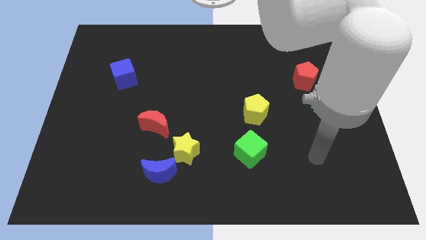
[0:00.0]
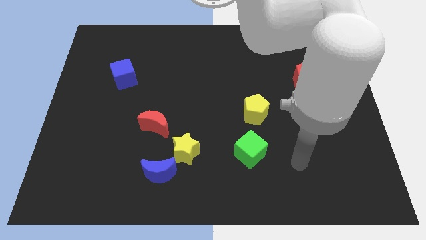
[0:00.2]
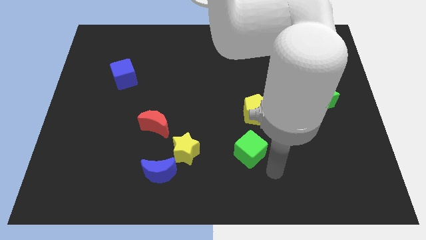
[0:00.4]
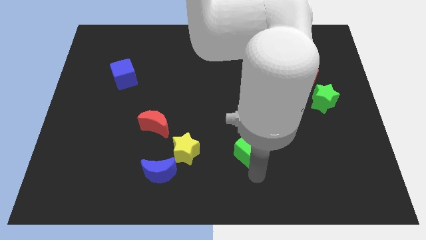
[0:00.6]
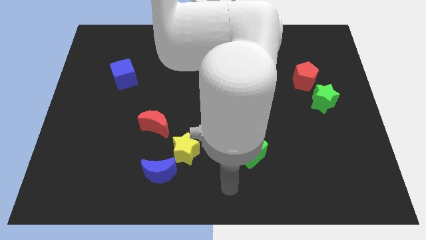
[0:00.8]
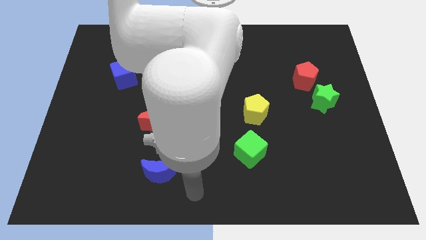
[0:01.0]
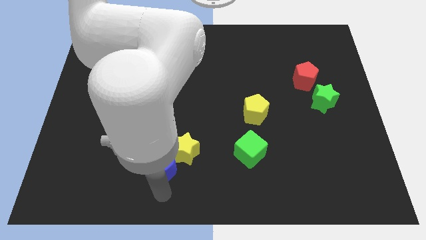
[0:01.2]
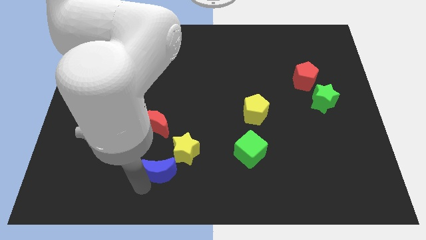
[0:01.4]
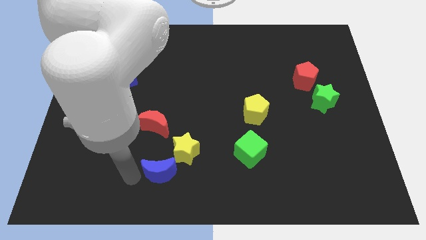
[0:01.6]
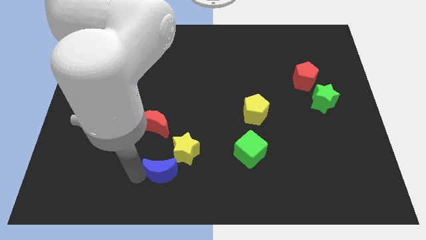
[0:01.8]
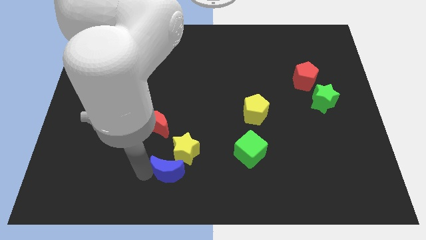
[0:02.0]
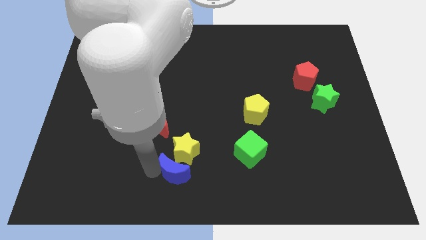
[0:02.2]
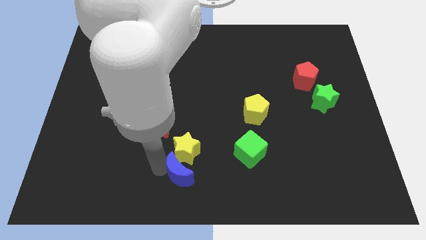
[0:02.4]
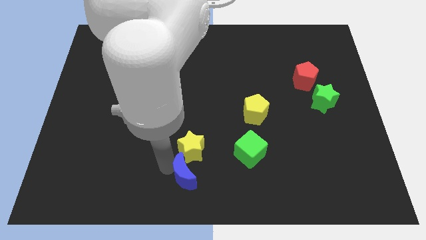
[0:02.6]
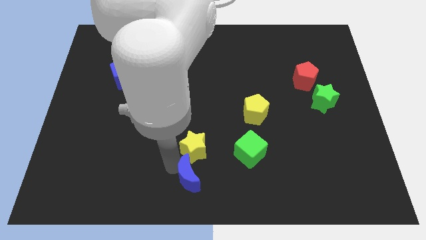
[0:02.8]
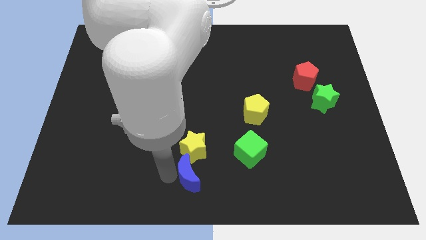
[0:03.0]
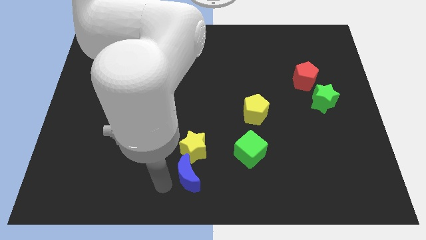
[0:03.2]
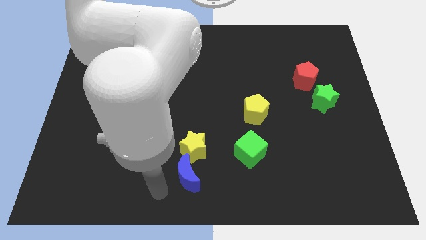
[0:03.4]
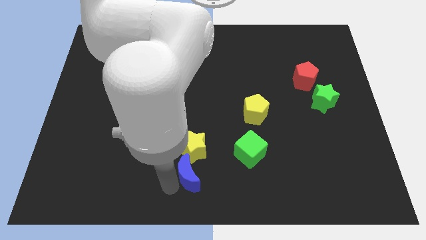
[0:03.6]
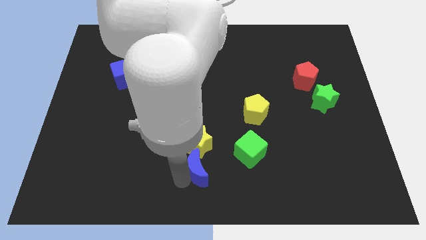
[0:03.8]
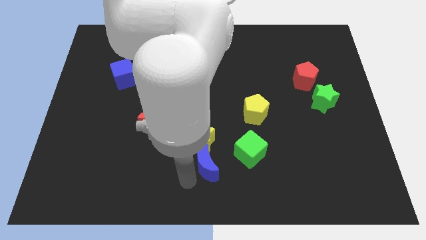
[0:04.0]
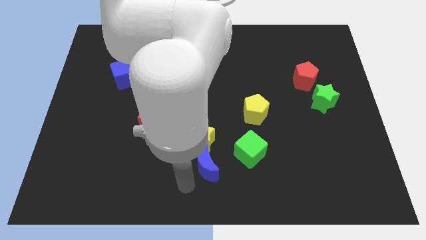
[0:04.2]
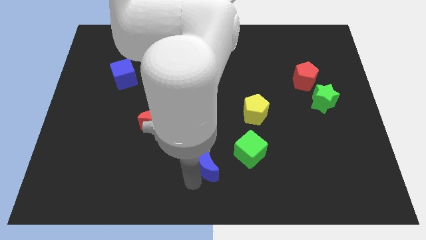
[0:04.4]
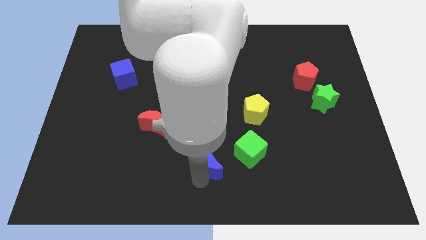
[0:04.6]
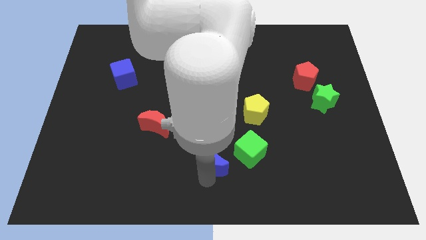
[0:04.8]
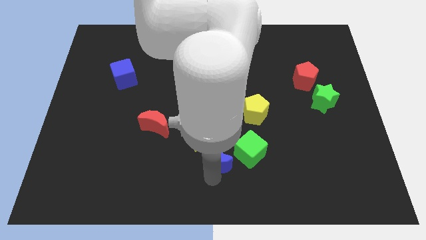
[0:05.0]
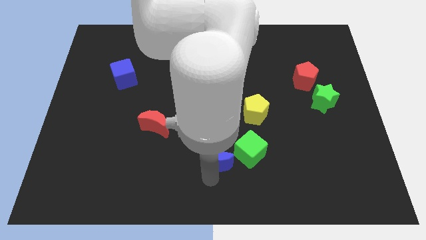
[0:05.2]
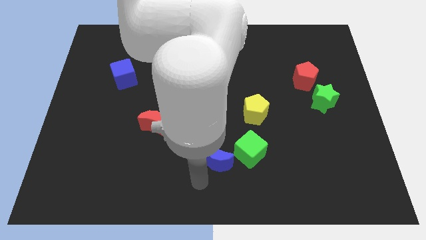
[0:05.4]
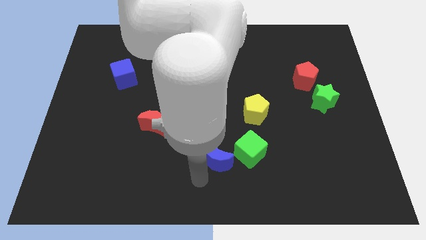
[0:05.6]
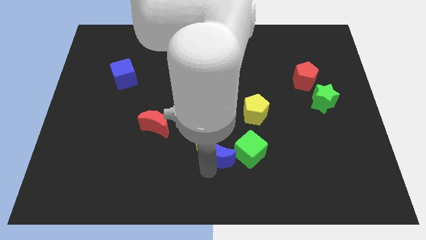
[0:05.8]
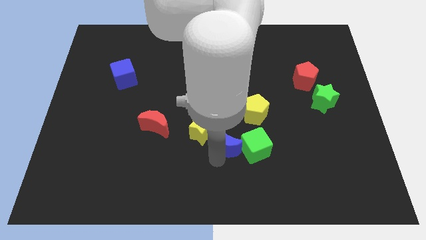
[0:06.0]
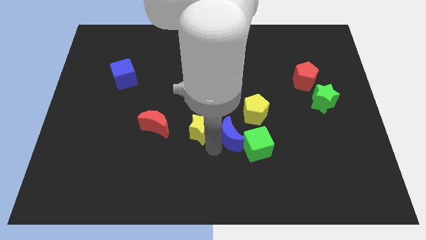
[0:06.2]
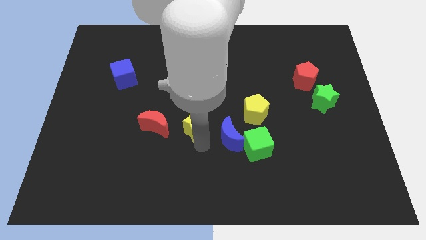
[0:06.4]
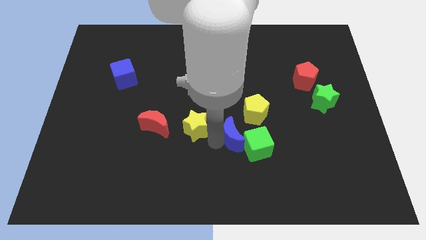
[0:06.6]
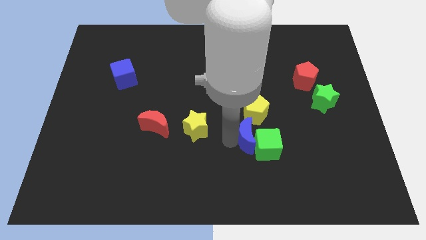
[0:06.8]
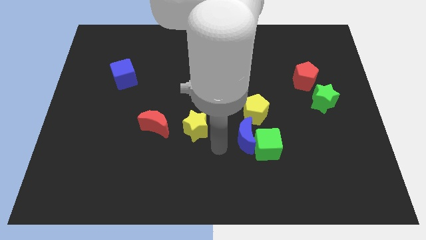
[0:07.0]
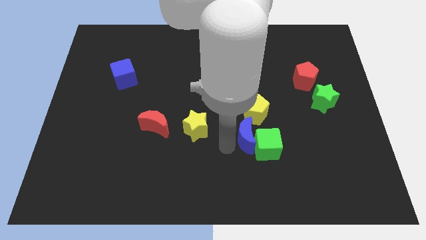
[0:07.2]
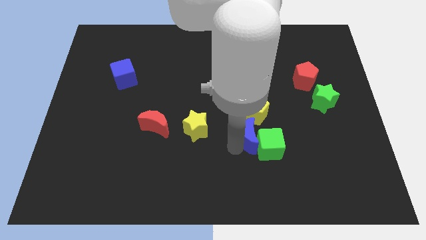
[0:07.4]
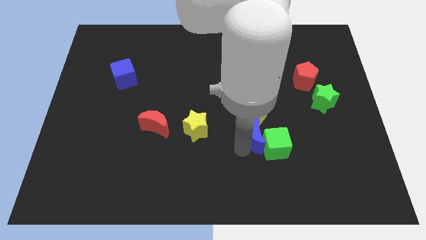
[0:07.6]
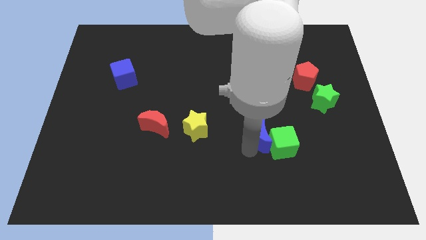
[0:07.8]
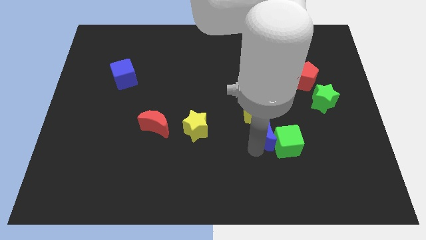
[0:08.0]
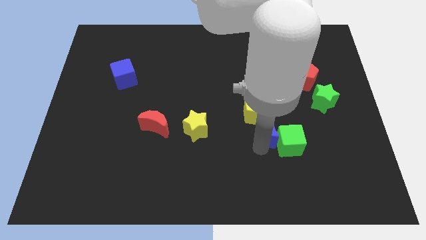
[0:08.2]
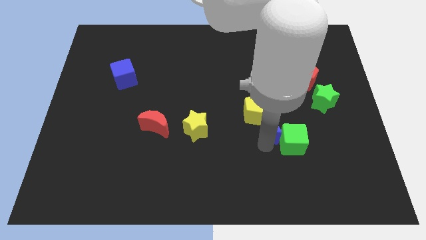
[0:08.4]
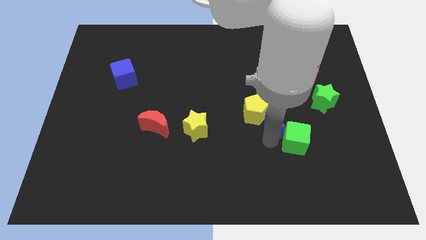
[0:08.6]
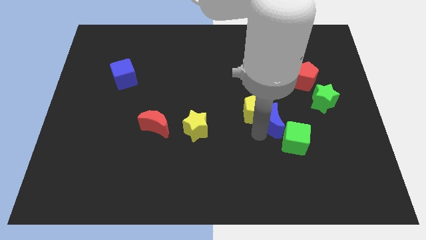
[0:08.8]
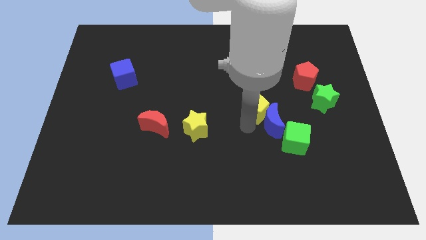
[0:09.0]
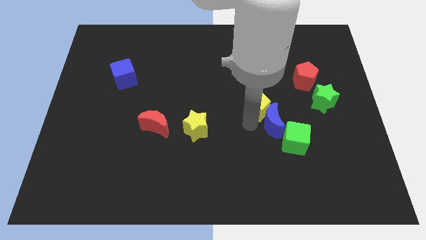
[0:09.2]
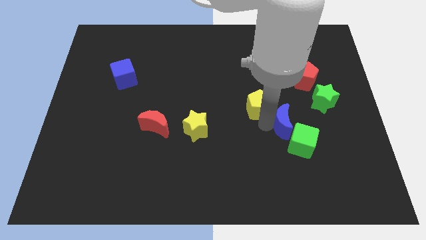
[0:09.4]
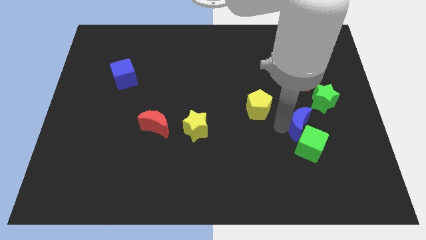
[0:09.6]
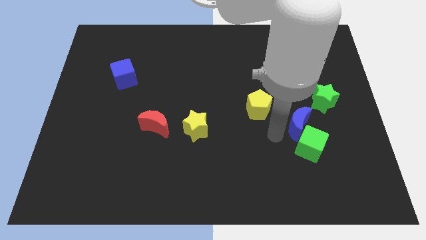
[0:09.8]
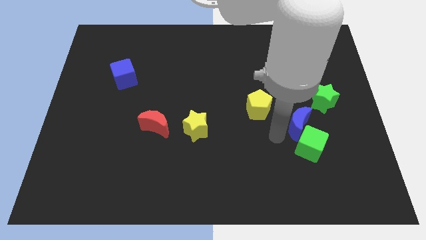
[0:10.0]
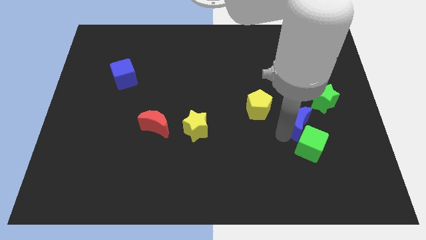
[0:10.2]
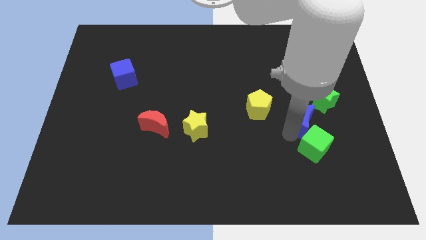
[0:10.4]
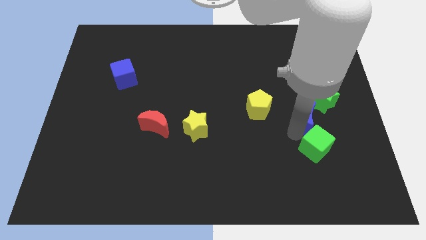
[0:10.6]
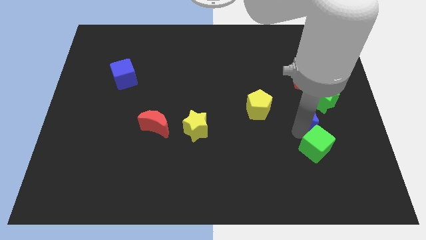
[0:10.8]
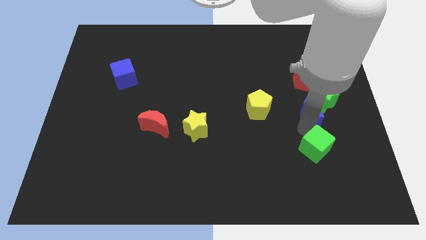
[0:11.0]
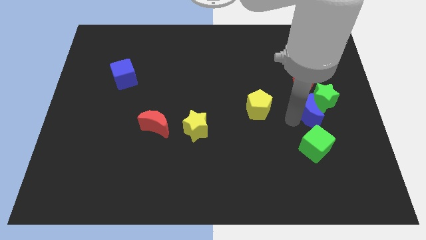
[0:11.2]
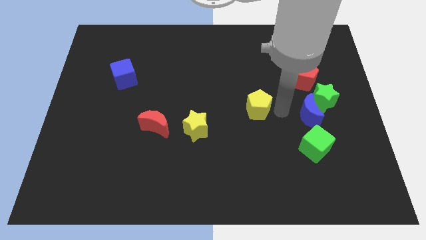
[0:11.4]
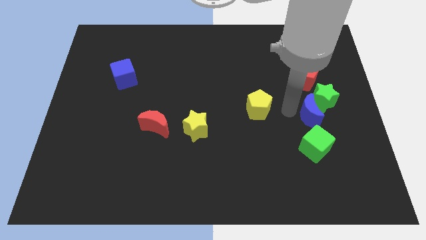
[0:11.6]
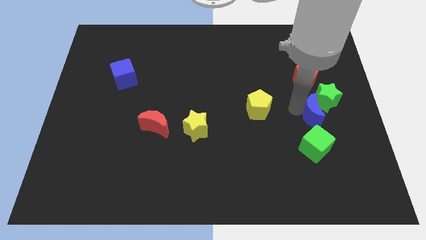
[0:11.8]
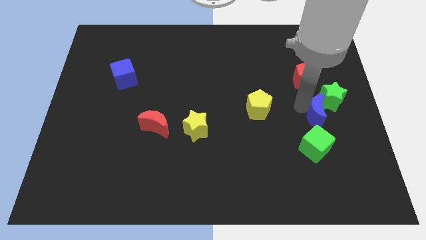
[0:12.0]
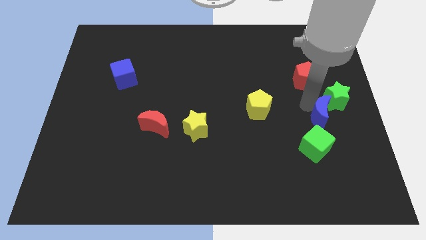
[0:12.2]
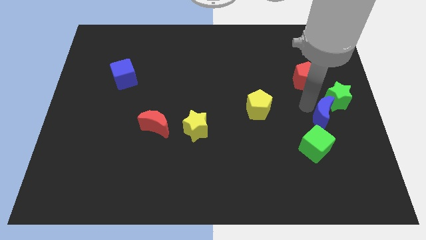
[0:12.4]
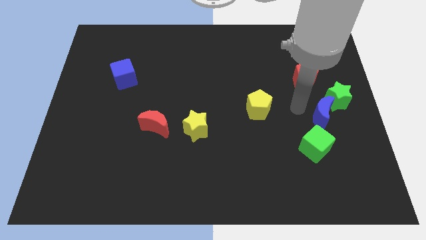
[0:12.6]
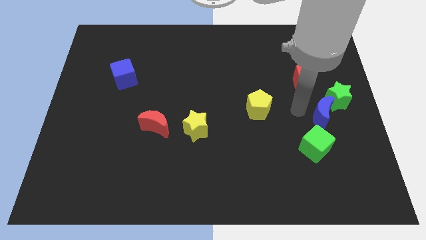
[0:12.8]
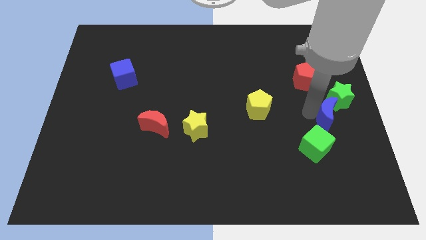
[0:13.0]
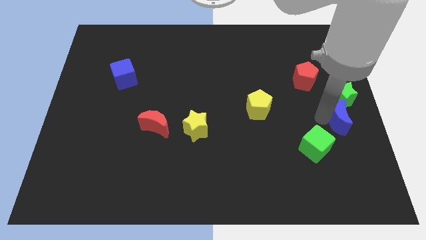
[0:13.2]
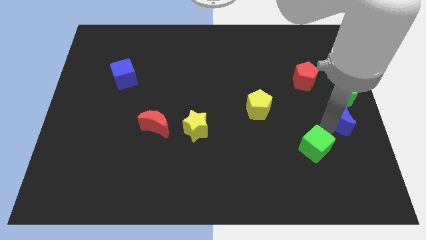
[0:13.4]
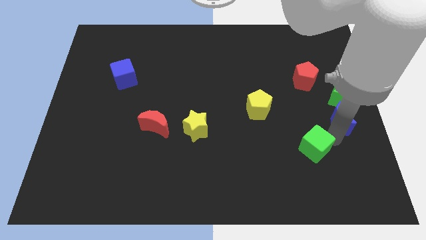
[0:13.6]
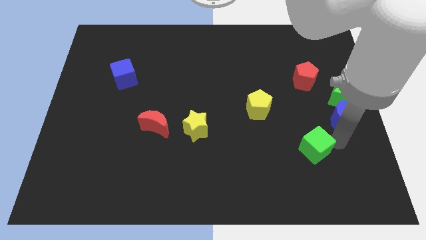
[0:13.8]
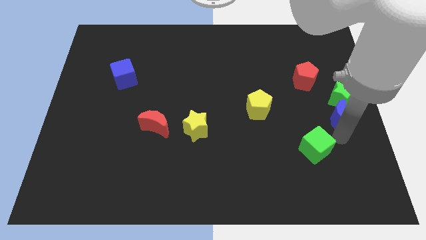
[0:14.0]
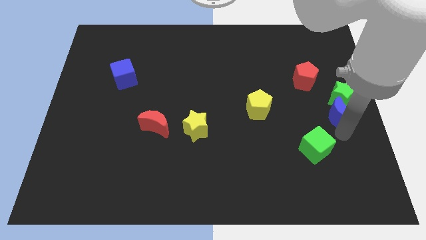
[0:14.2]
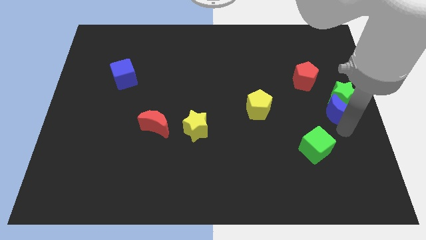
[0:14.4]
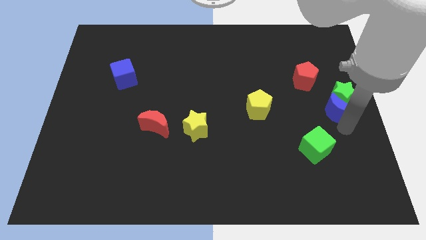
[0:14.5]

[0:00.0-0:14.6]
push the blue moon to the bottom right side of the red pentagon

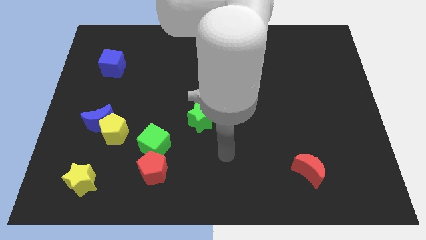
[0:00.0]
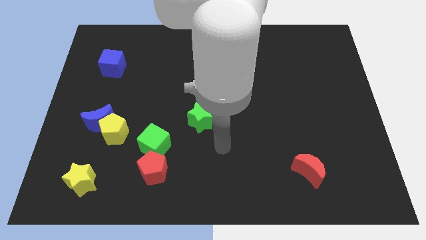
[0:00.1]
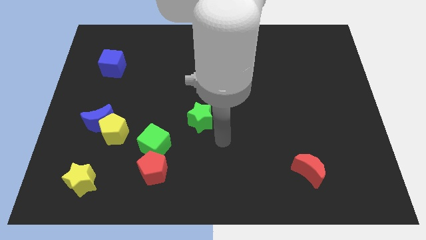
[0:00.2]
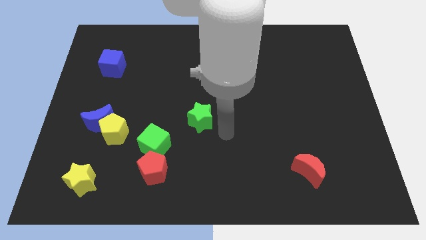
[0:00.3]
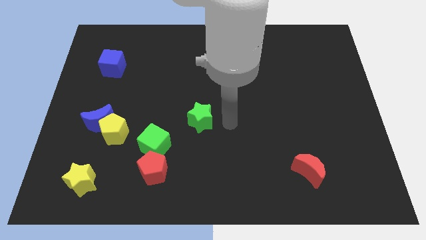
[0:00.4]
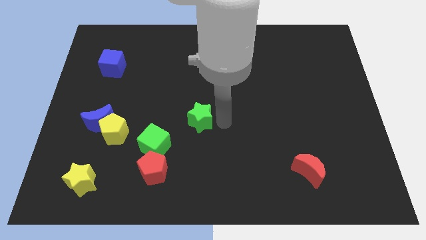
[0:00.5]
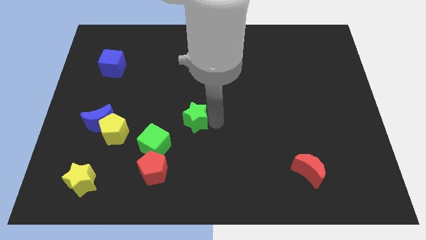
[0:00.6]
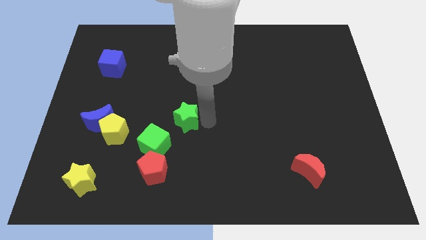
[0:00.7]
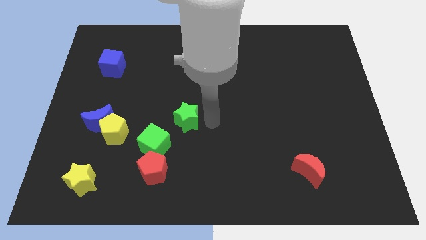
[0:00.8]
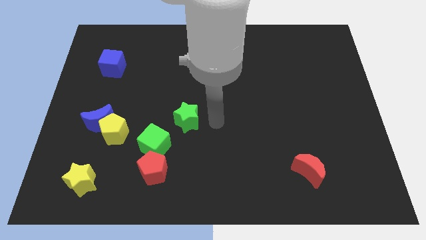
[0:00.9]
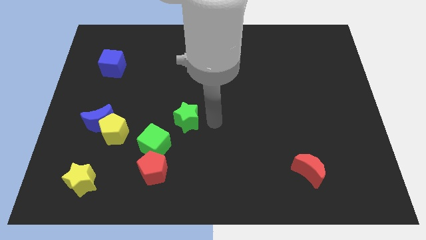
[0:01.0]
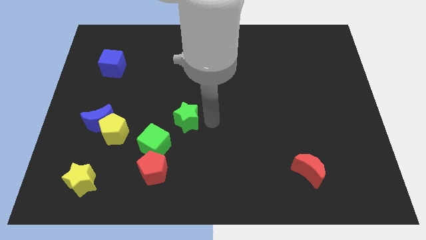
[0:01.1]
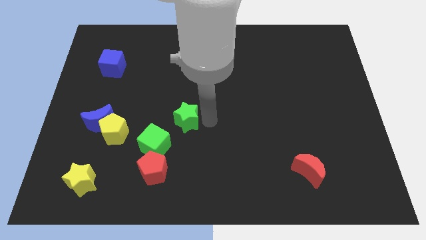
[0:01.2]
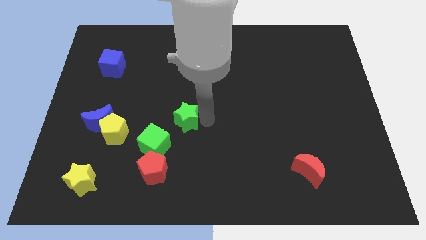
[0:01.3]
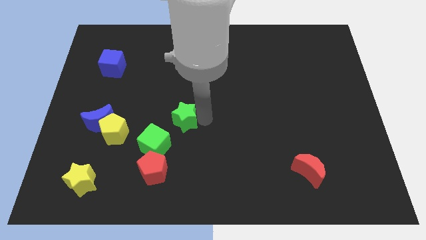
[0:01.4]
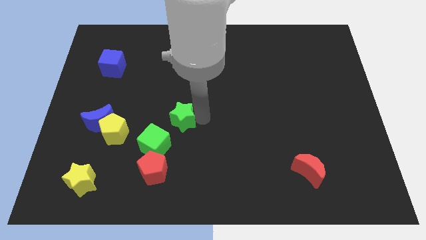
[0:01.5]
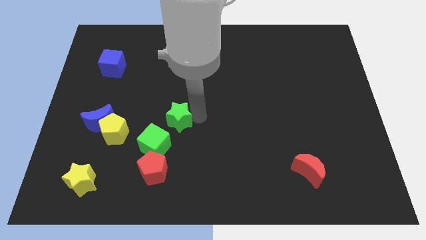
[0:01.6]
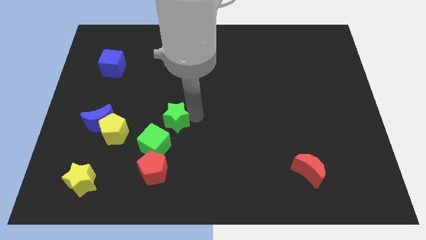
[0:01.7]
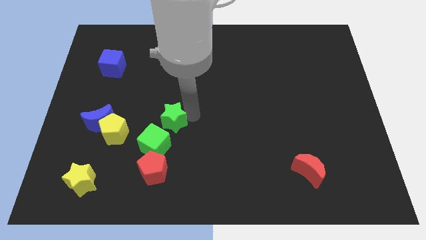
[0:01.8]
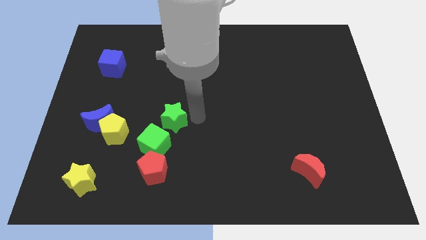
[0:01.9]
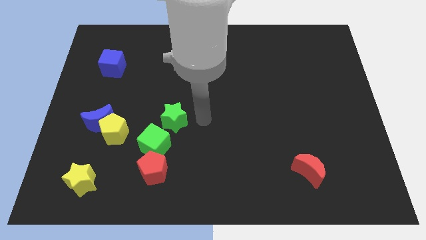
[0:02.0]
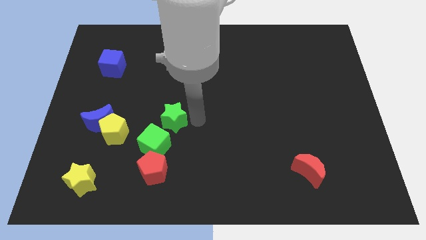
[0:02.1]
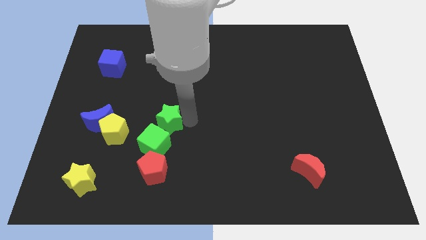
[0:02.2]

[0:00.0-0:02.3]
put the green star right of the blue moon
